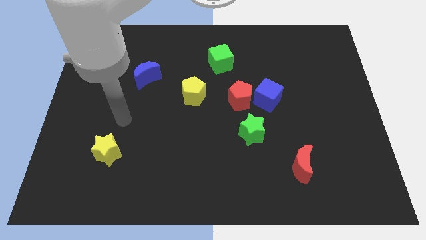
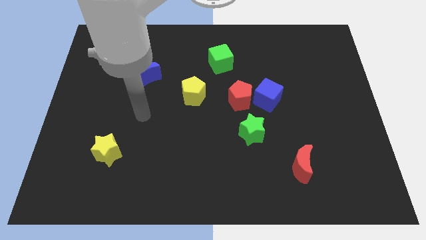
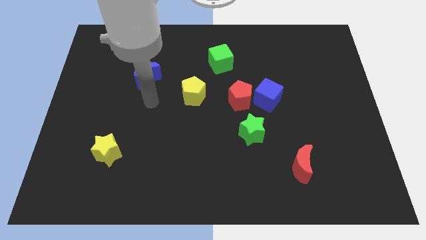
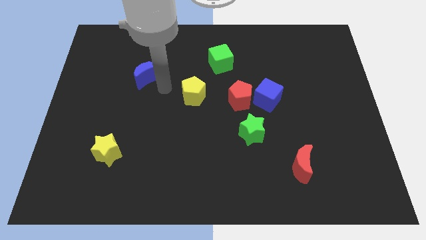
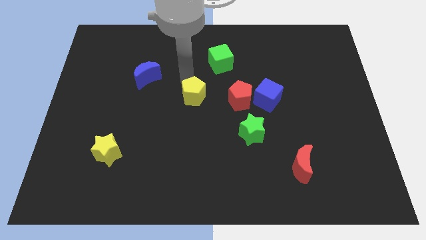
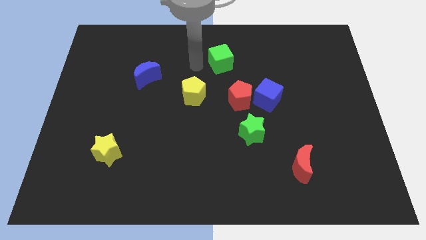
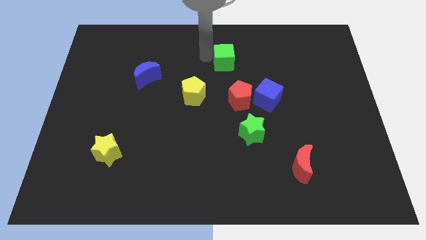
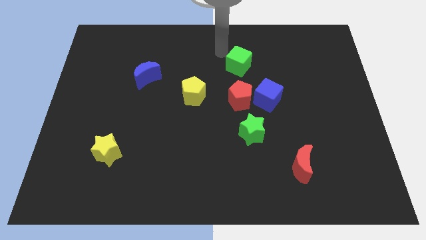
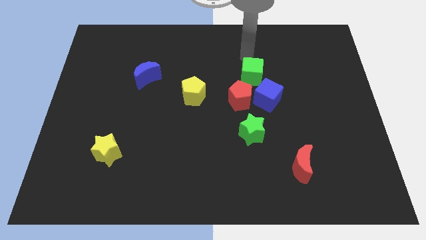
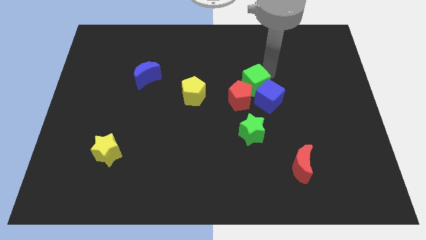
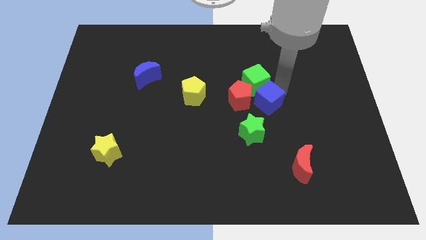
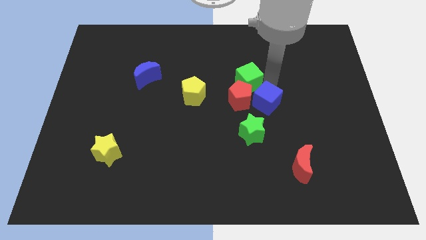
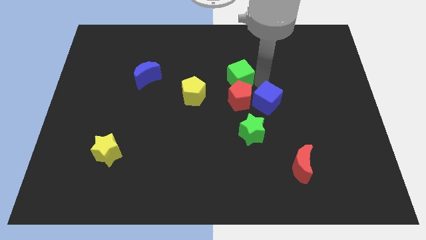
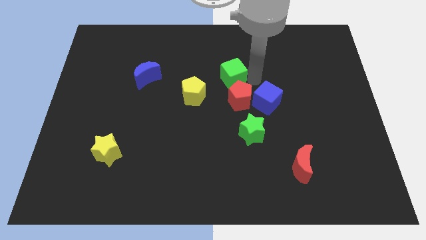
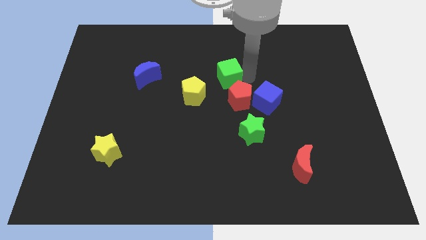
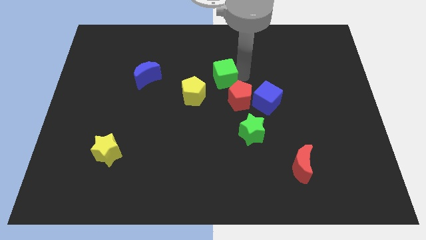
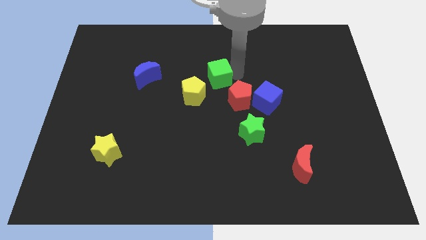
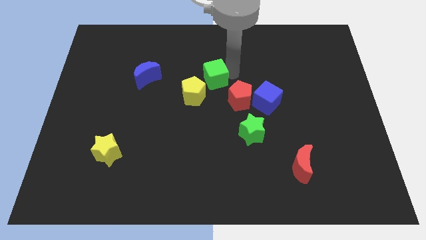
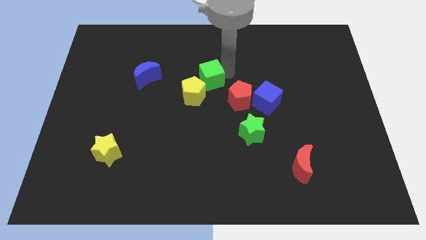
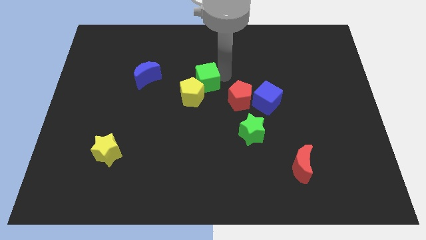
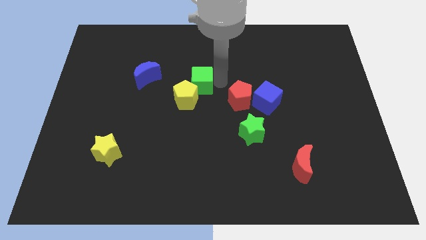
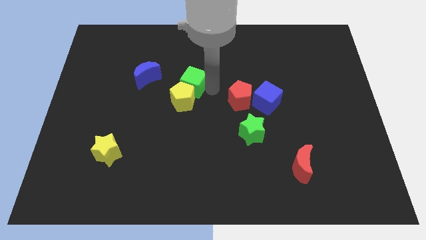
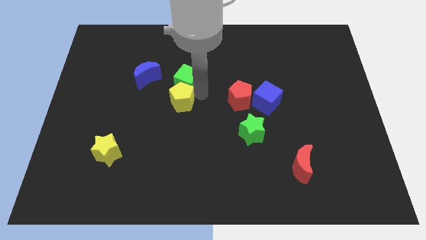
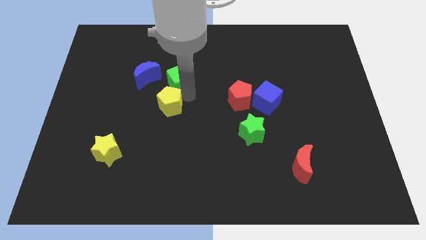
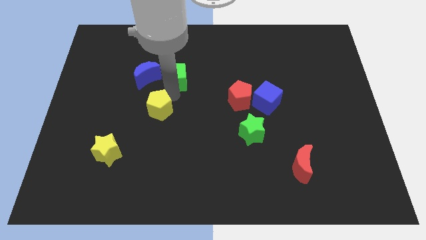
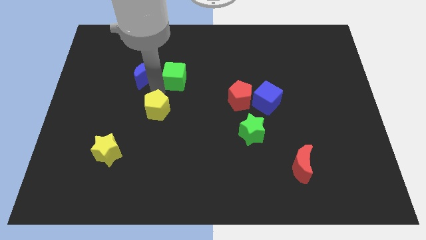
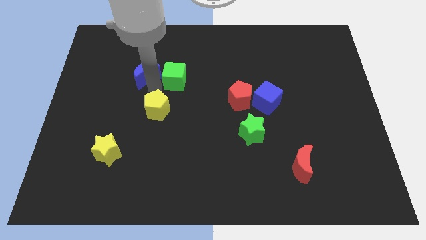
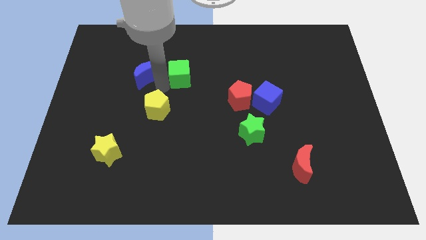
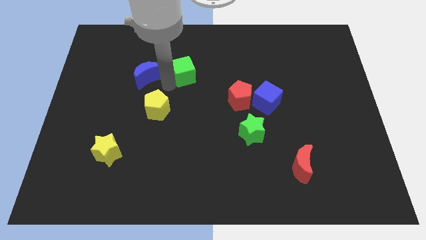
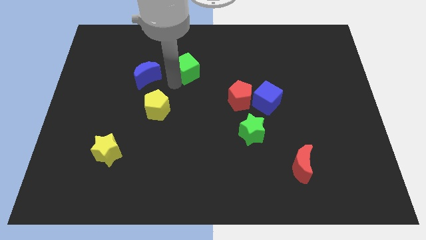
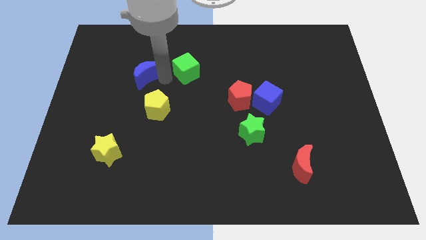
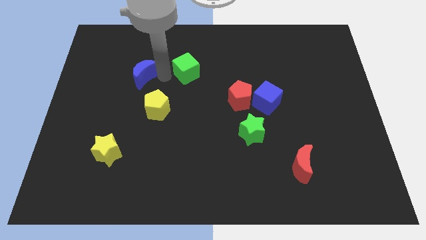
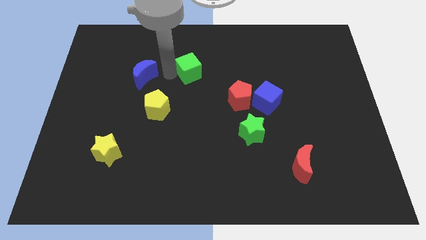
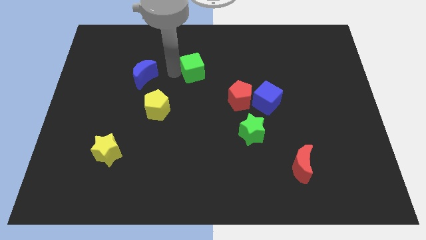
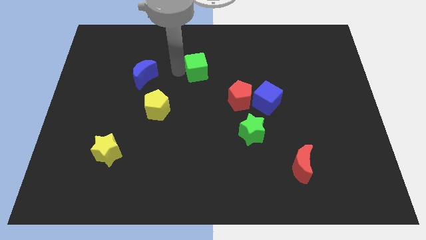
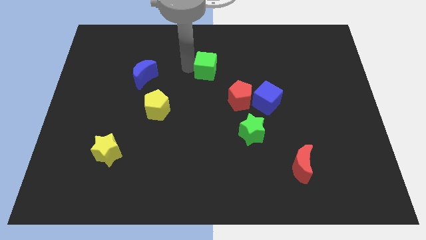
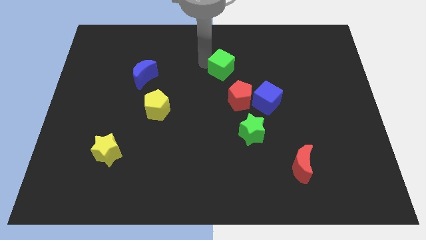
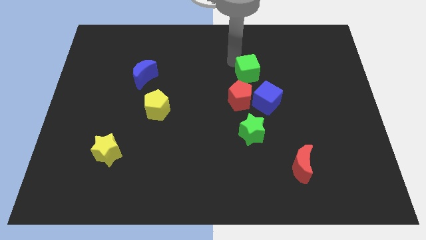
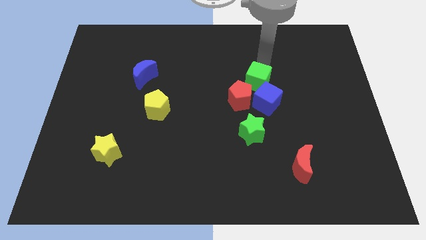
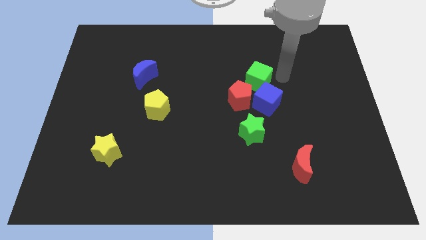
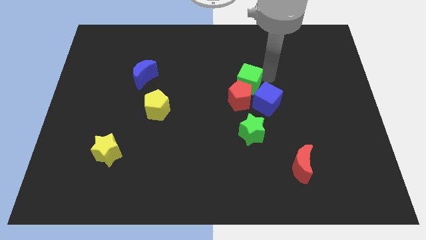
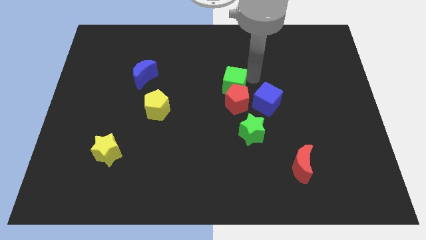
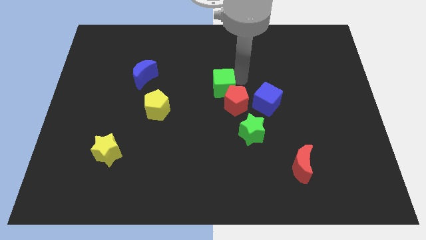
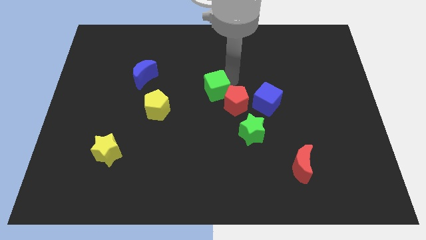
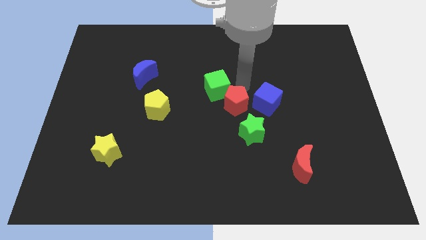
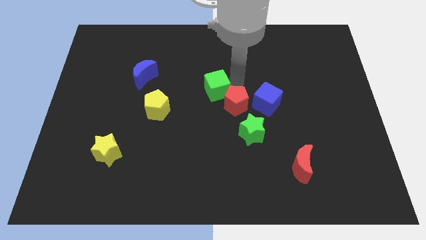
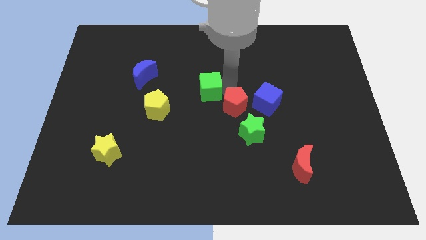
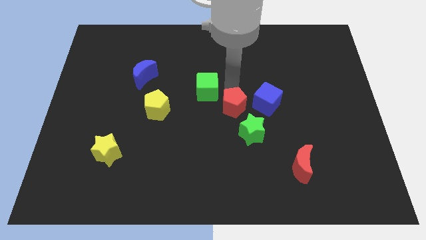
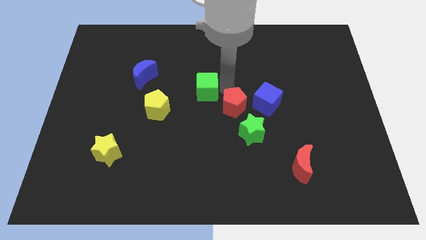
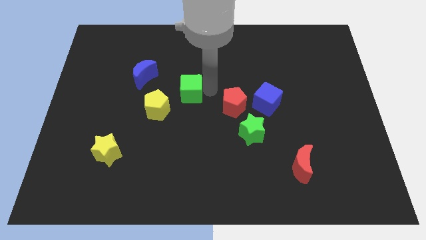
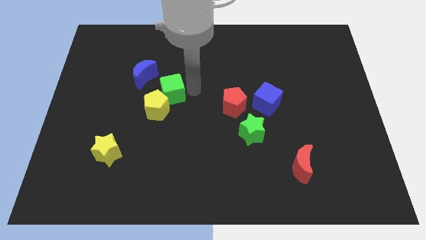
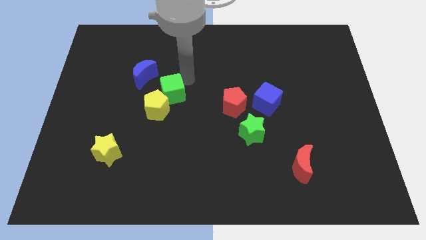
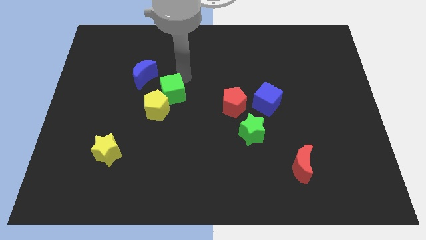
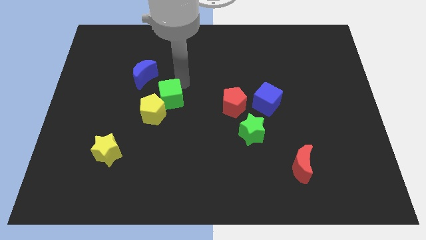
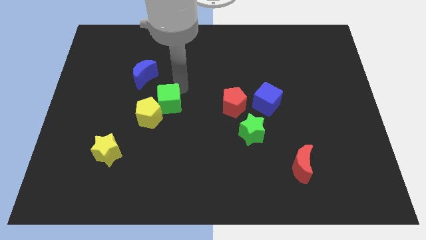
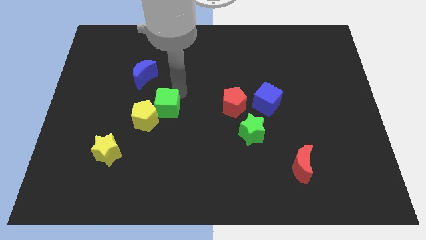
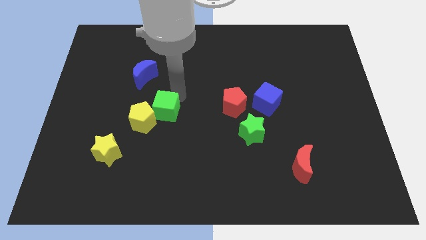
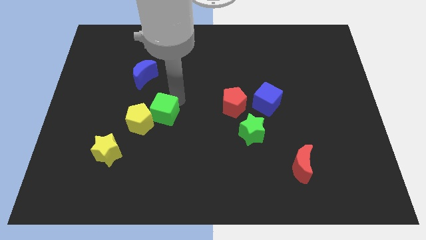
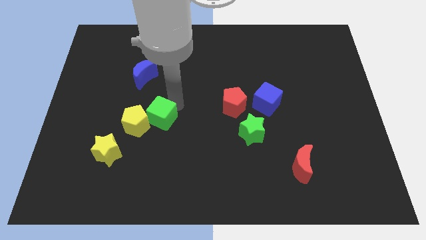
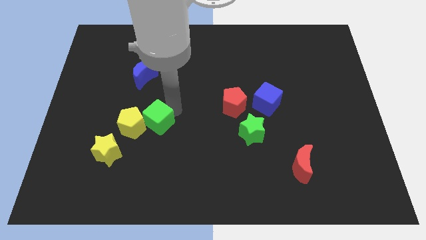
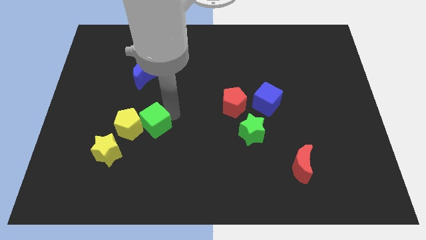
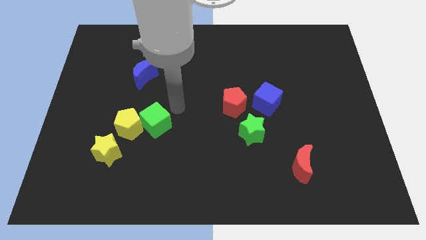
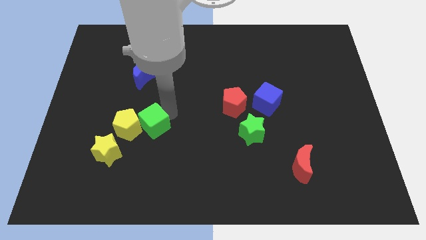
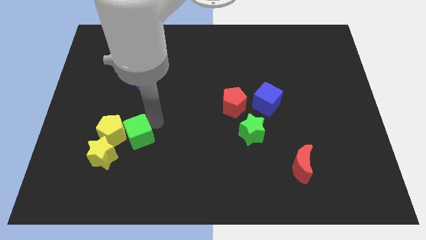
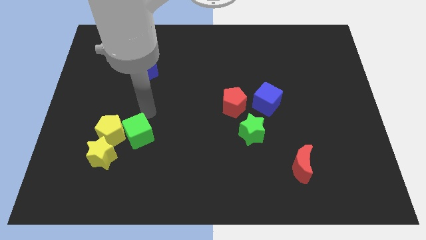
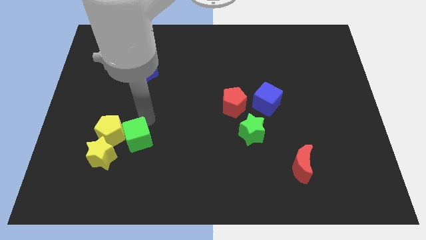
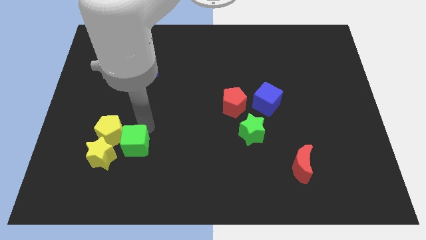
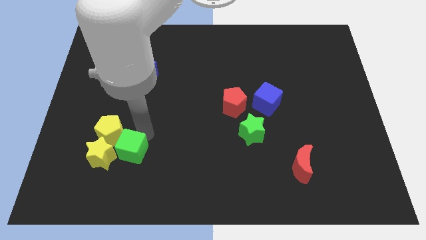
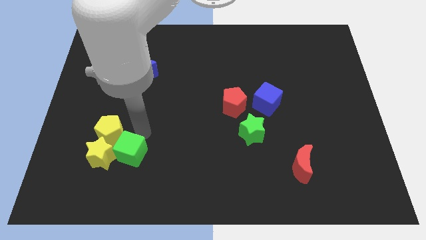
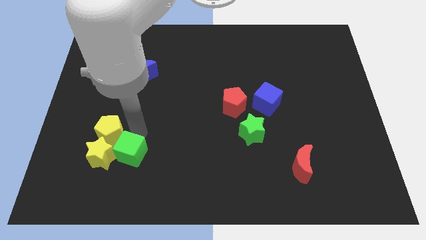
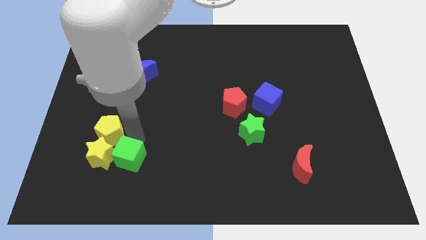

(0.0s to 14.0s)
put the green cube to the bottom right of the yellow star

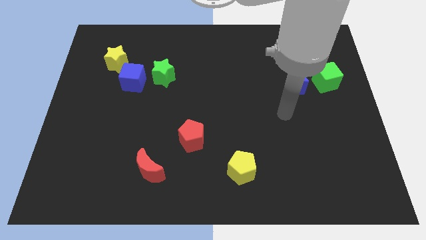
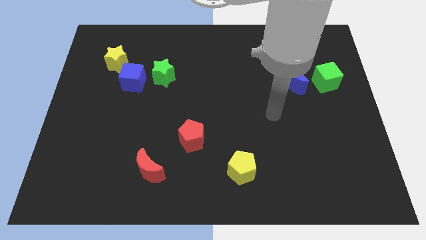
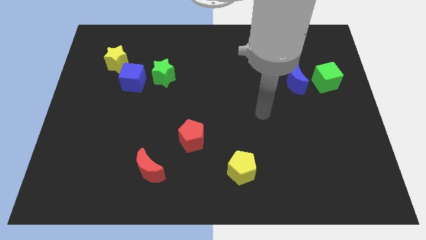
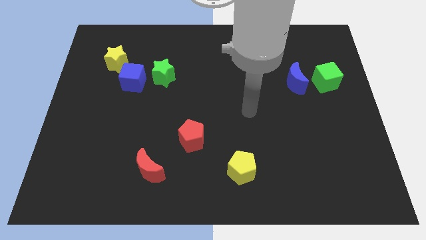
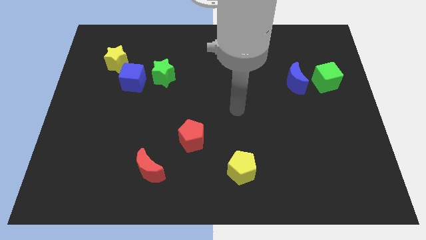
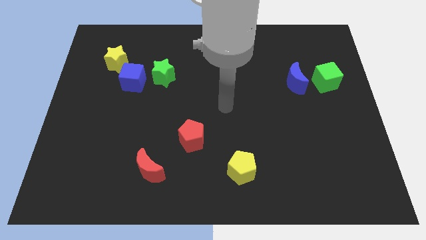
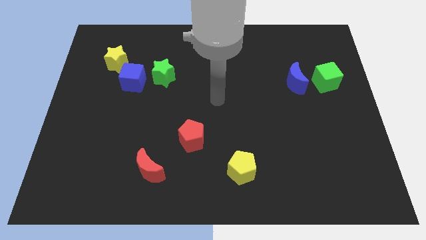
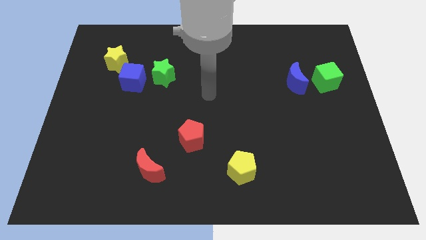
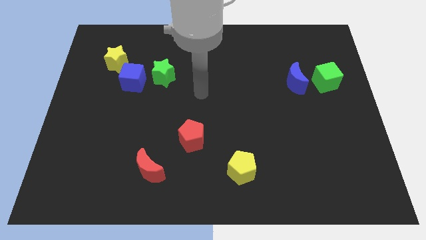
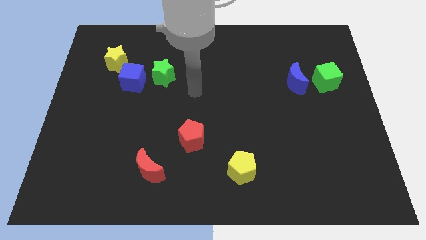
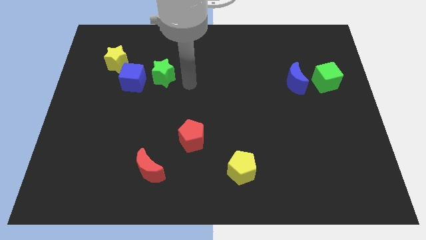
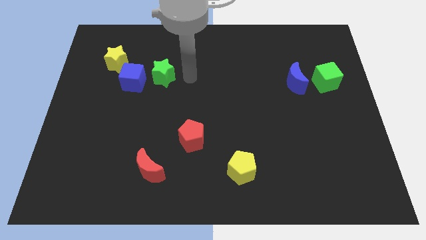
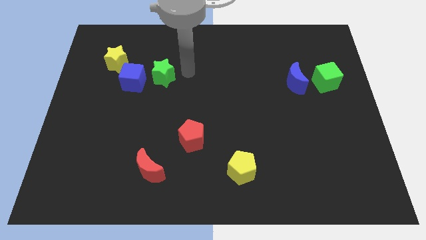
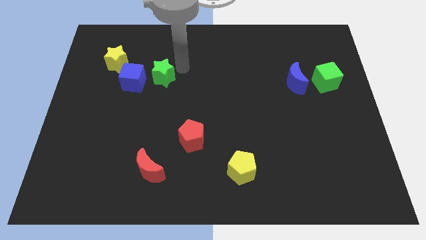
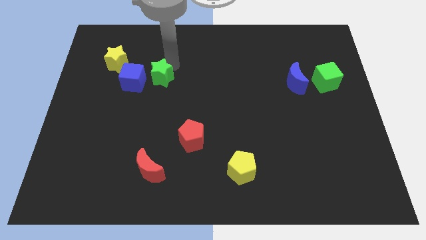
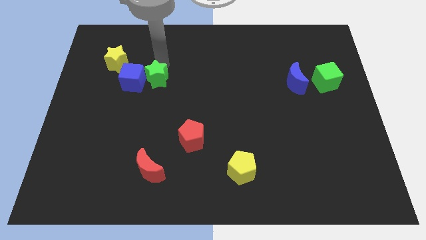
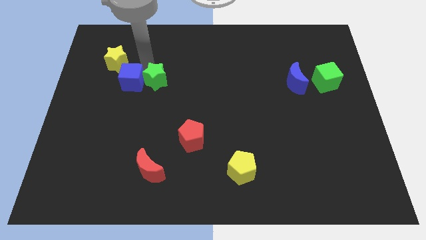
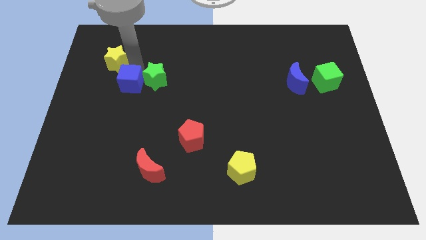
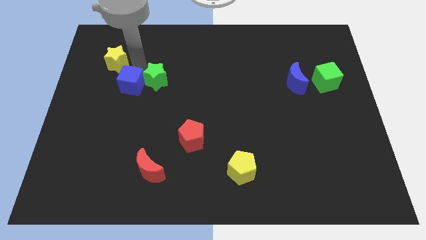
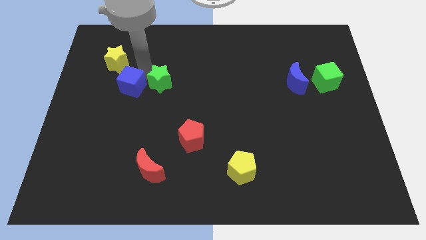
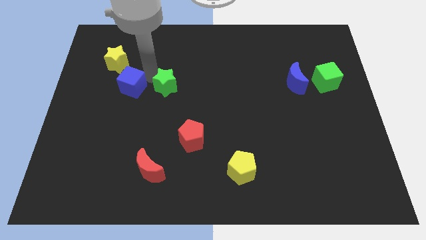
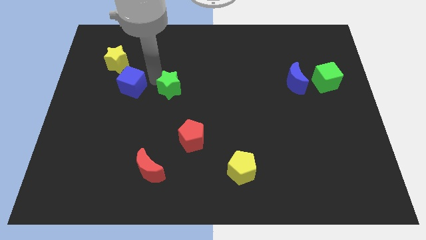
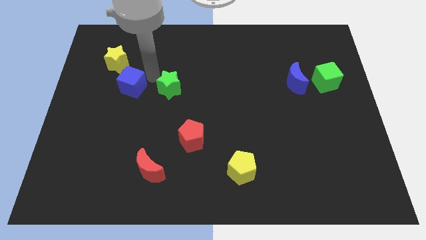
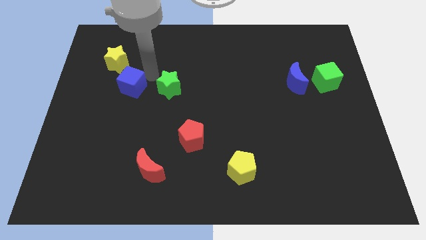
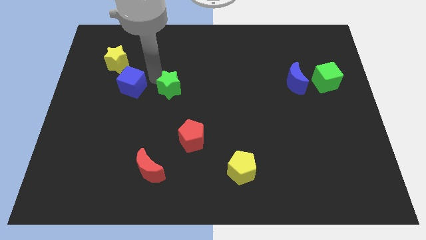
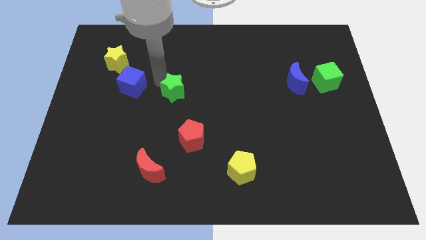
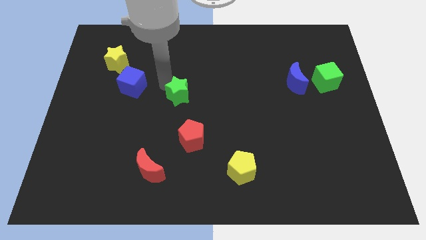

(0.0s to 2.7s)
move the green star to the top of the red pentagon
